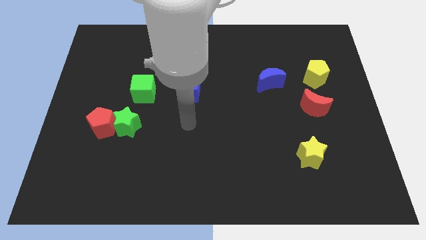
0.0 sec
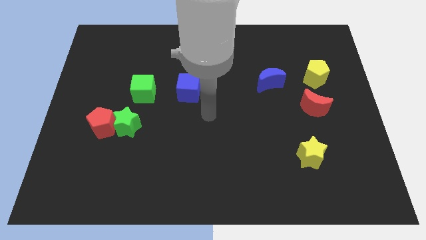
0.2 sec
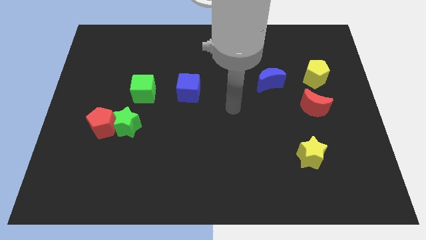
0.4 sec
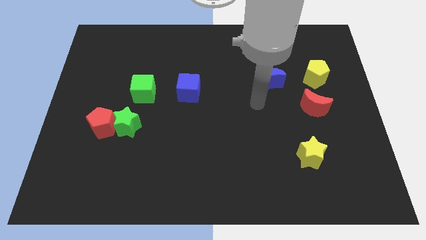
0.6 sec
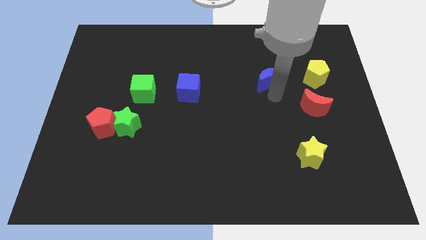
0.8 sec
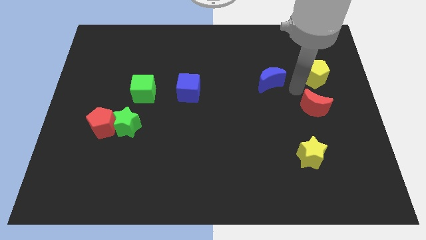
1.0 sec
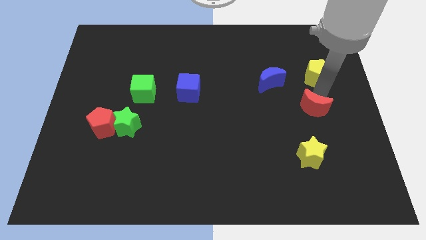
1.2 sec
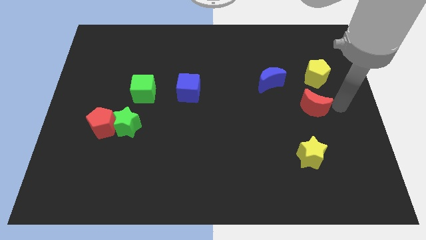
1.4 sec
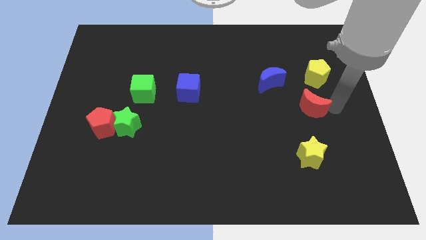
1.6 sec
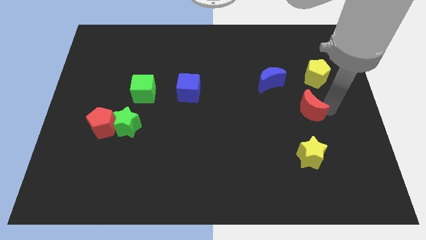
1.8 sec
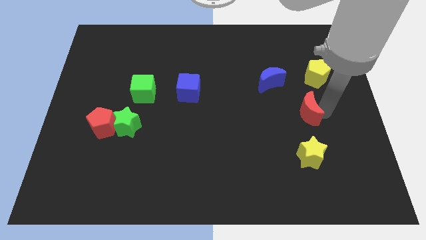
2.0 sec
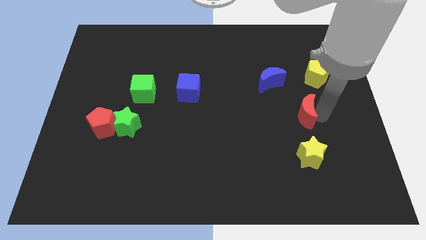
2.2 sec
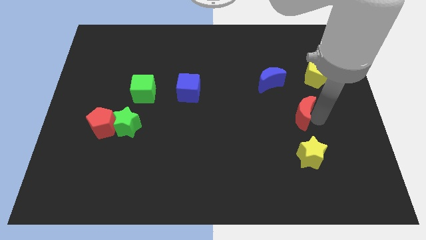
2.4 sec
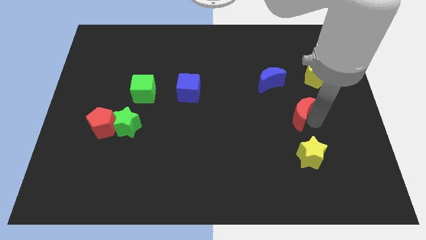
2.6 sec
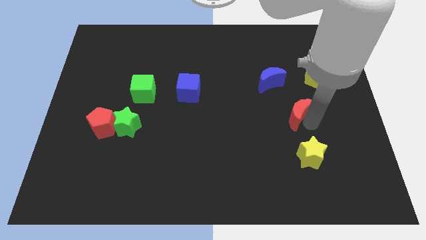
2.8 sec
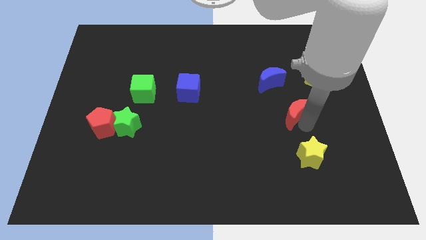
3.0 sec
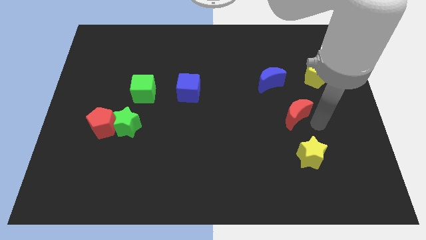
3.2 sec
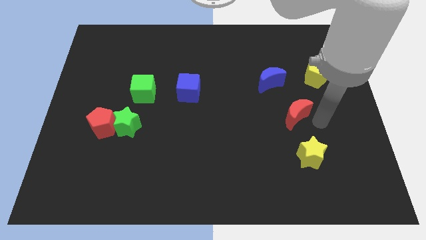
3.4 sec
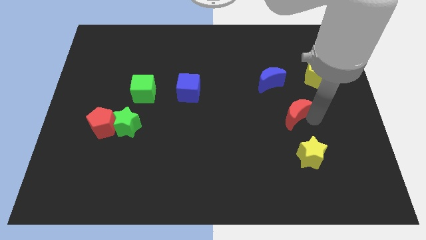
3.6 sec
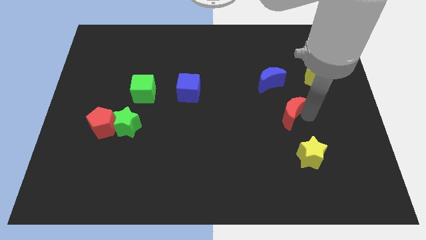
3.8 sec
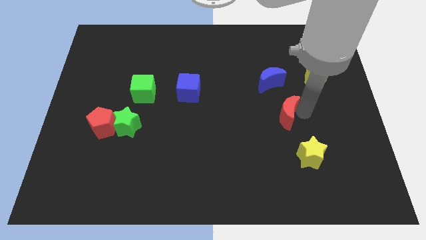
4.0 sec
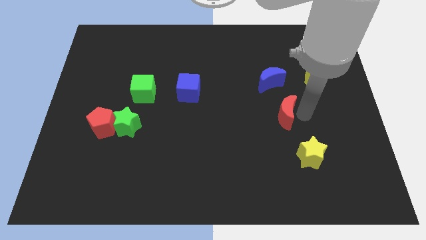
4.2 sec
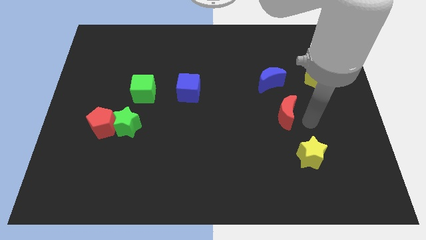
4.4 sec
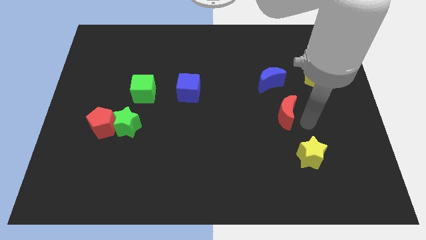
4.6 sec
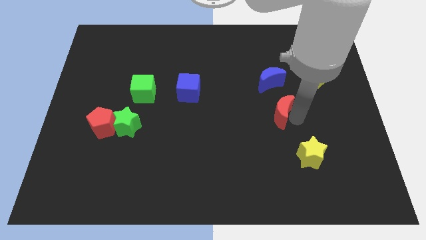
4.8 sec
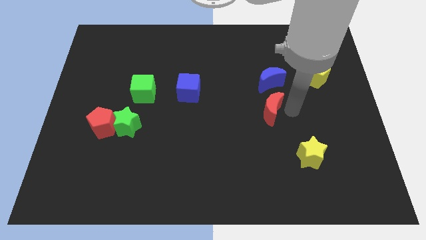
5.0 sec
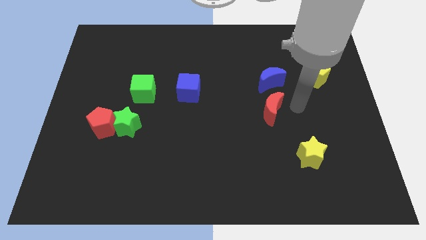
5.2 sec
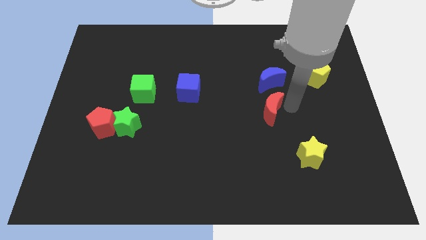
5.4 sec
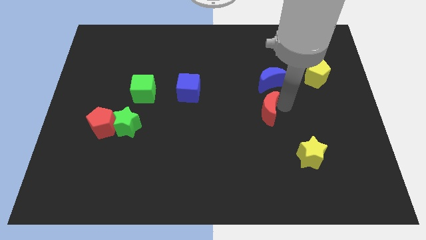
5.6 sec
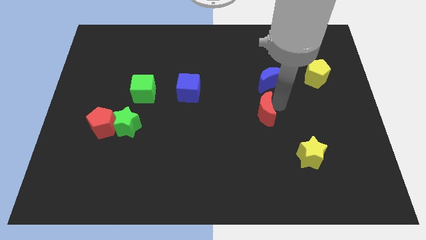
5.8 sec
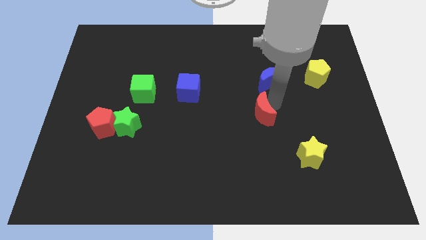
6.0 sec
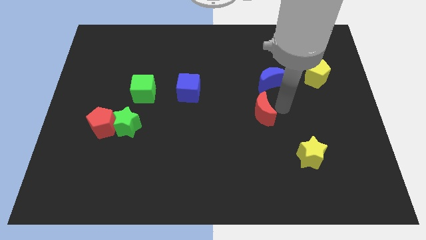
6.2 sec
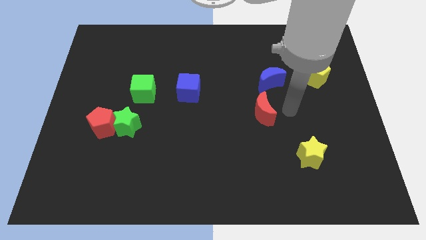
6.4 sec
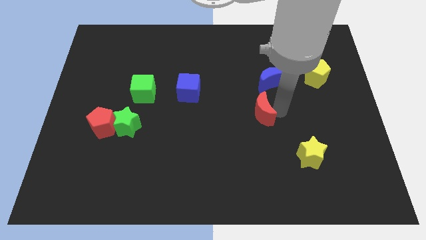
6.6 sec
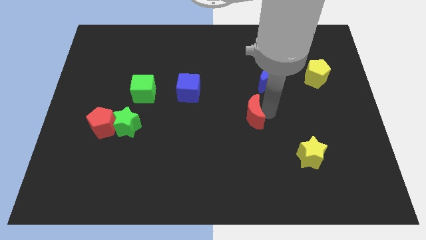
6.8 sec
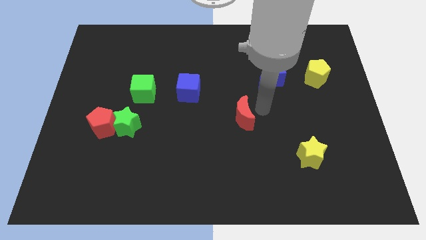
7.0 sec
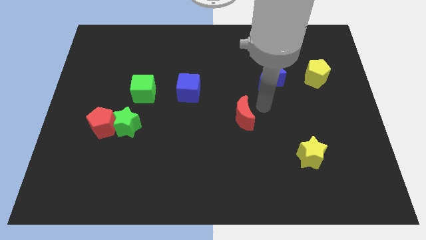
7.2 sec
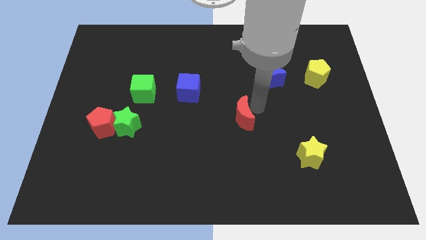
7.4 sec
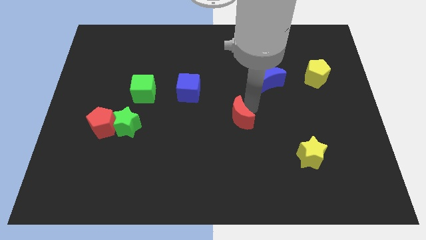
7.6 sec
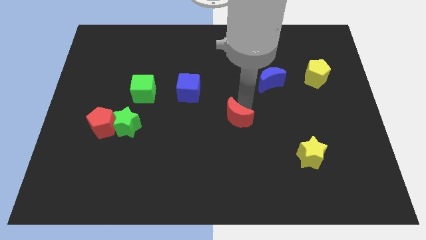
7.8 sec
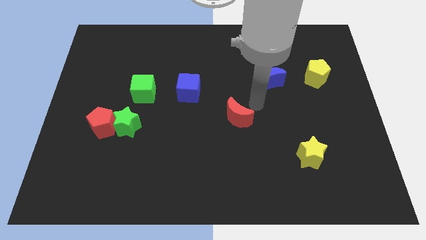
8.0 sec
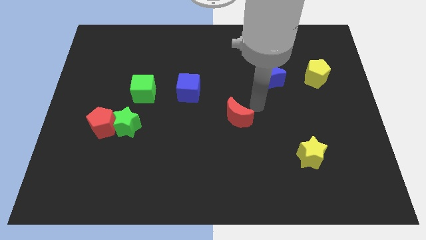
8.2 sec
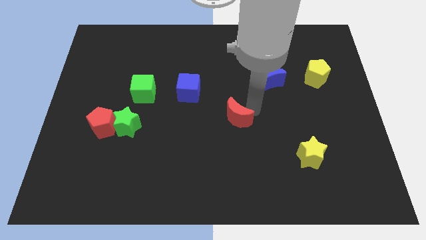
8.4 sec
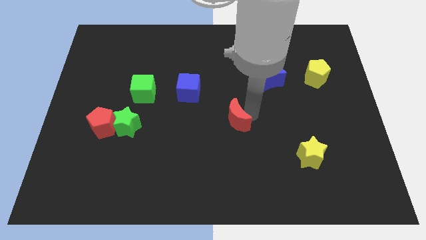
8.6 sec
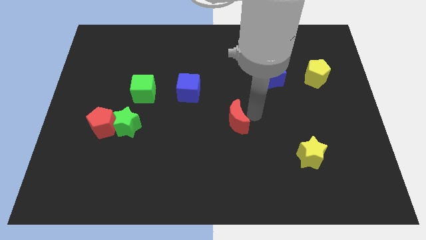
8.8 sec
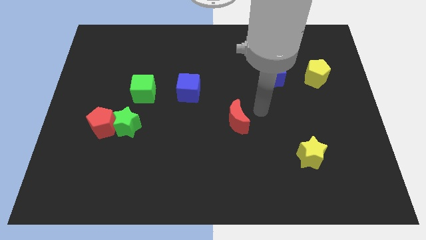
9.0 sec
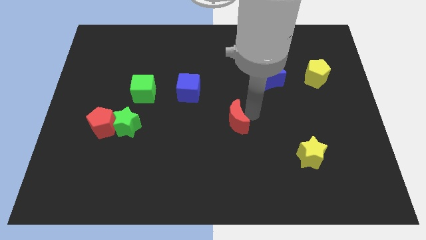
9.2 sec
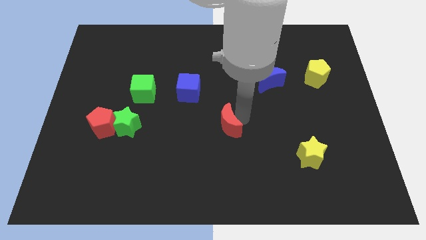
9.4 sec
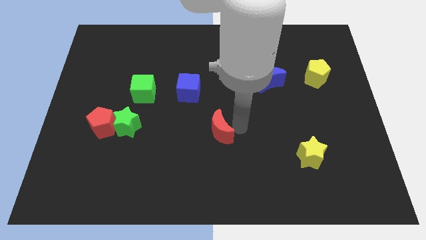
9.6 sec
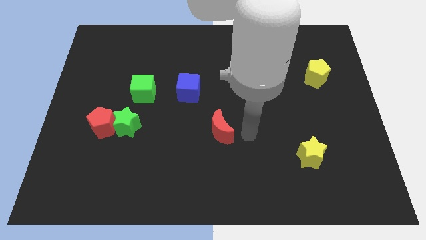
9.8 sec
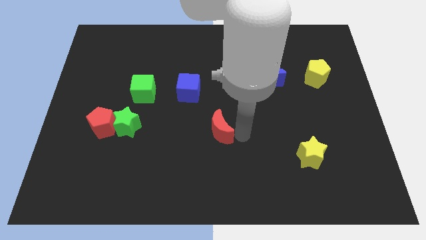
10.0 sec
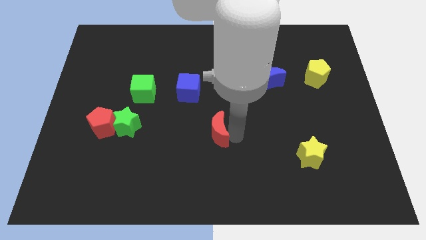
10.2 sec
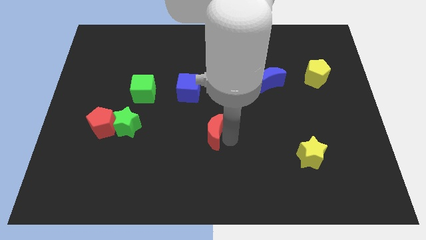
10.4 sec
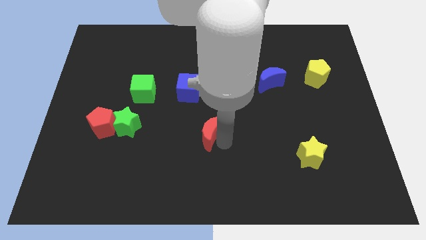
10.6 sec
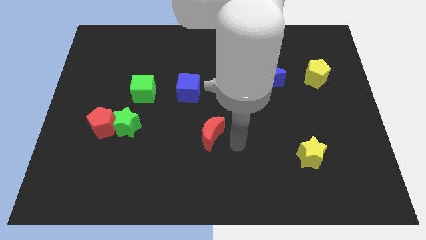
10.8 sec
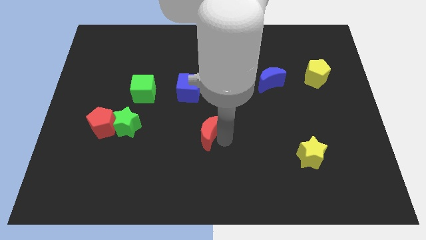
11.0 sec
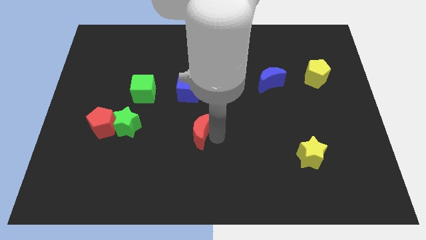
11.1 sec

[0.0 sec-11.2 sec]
move the red moon to the bottom of the blue cube

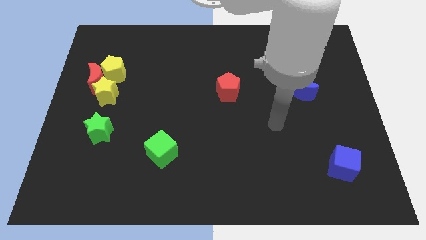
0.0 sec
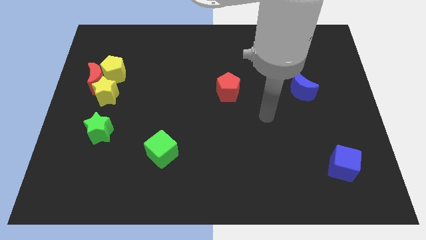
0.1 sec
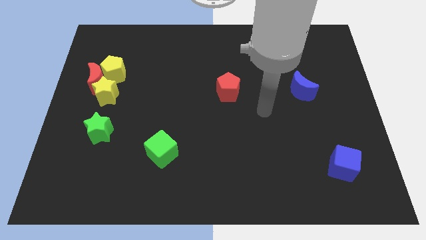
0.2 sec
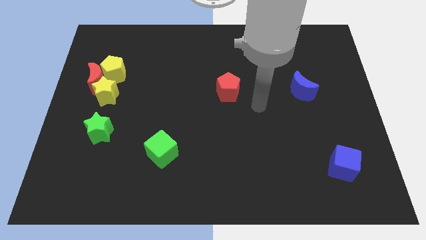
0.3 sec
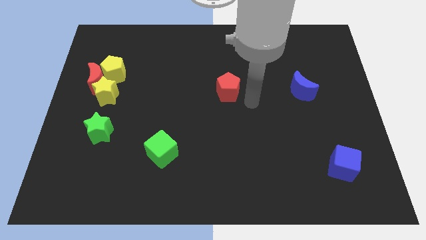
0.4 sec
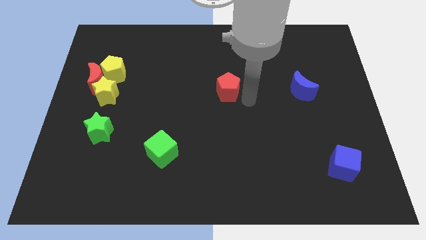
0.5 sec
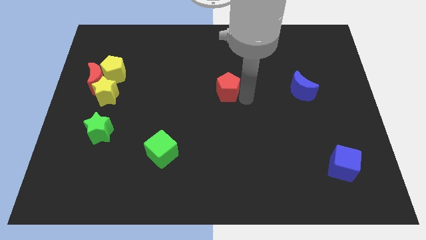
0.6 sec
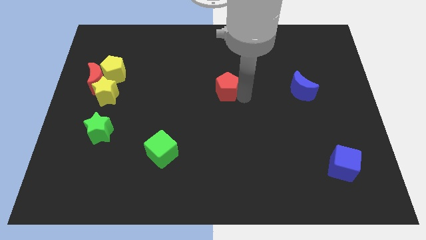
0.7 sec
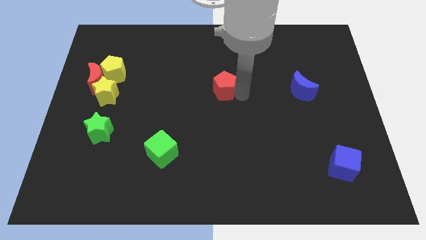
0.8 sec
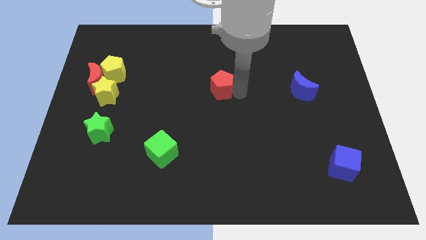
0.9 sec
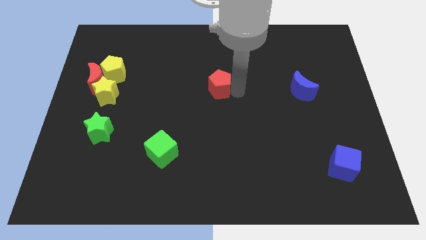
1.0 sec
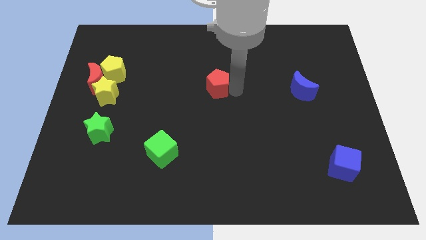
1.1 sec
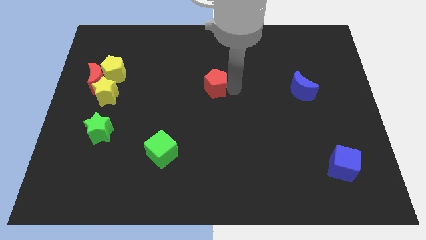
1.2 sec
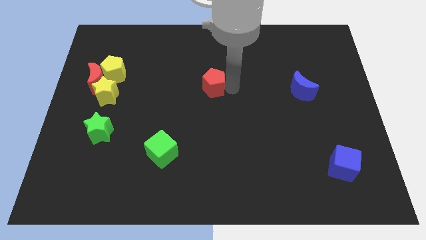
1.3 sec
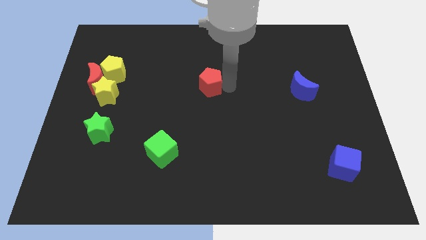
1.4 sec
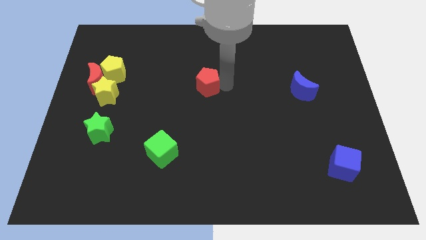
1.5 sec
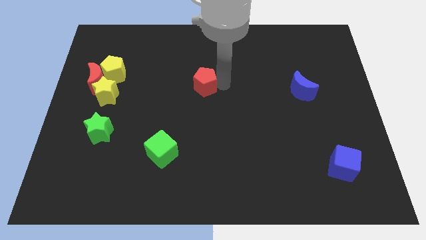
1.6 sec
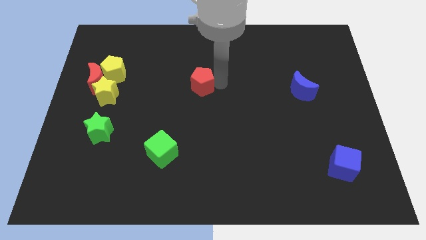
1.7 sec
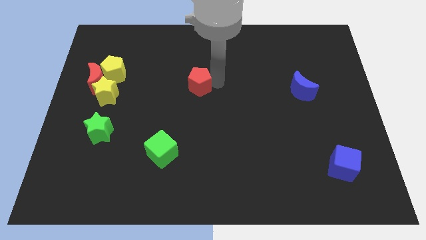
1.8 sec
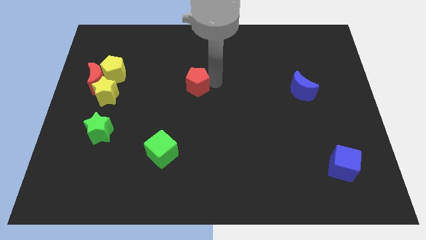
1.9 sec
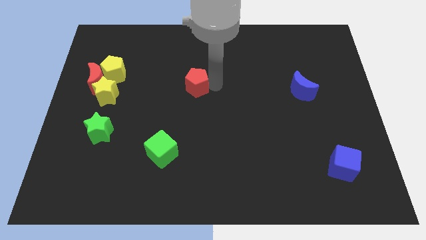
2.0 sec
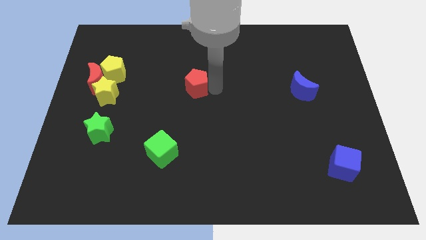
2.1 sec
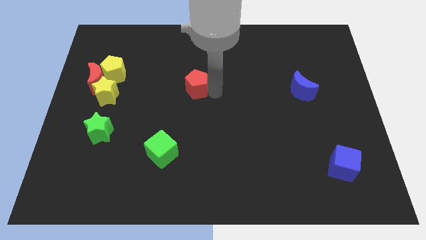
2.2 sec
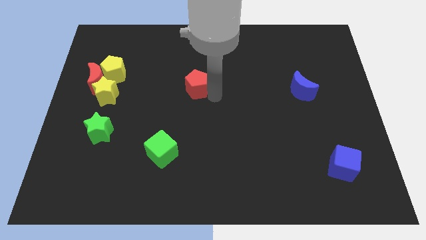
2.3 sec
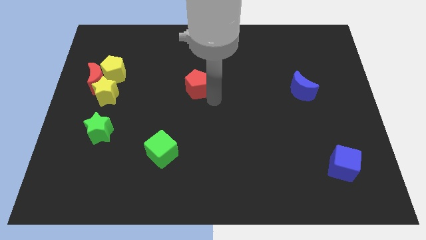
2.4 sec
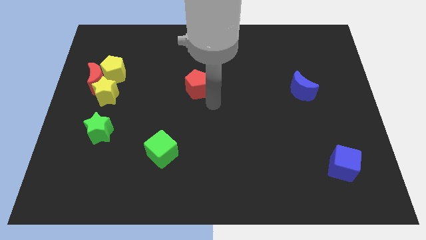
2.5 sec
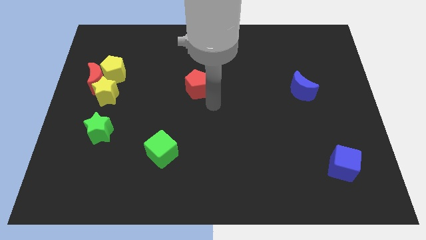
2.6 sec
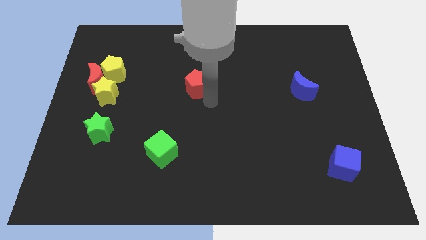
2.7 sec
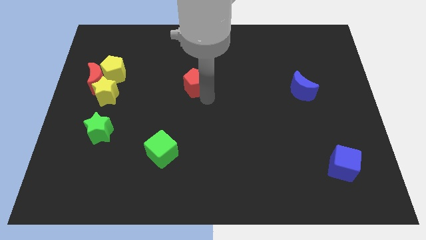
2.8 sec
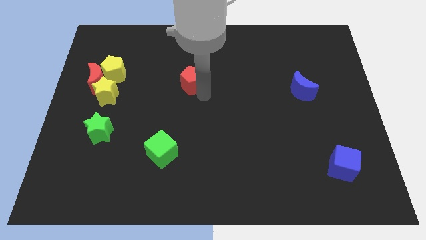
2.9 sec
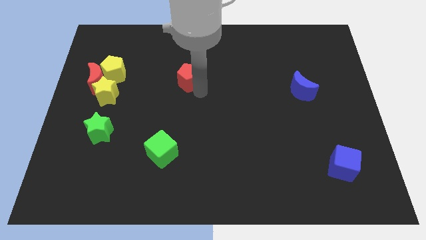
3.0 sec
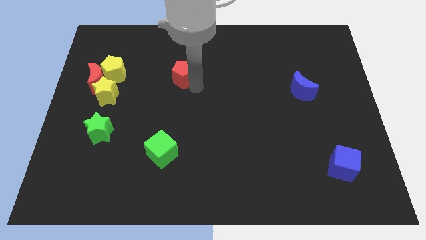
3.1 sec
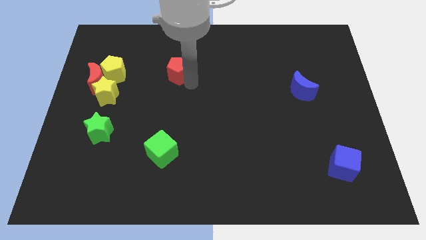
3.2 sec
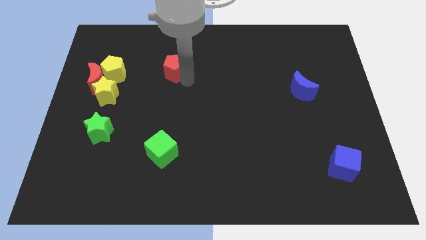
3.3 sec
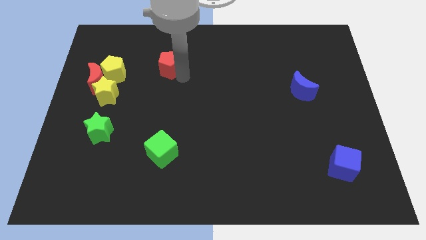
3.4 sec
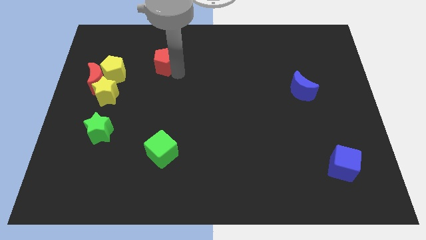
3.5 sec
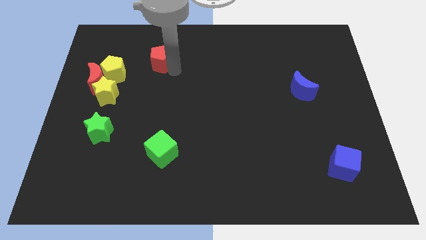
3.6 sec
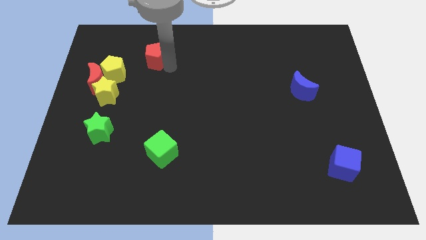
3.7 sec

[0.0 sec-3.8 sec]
slide the red pentagon diagonally up and to the right of the yellow pentagon
